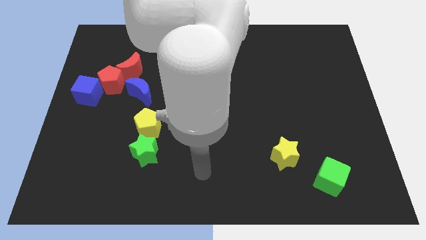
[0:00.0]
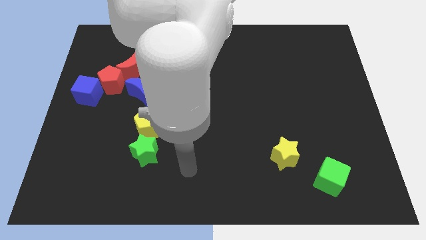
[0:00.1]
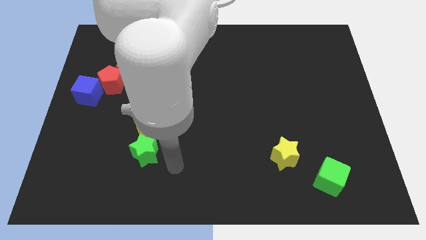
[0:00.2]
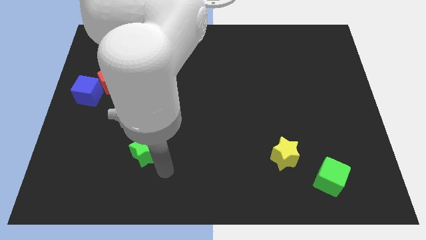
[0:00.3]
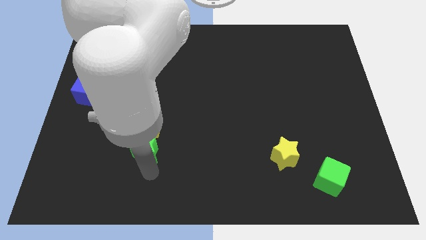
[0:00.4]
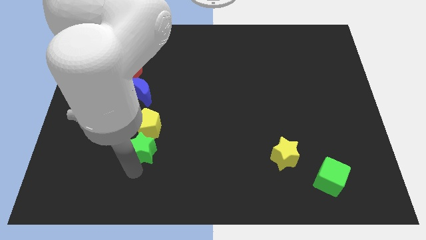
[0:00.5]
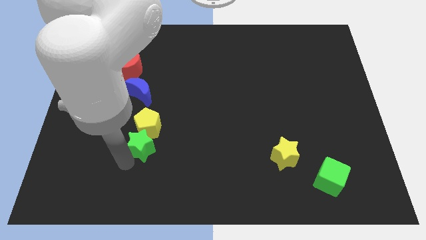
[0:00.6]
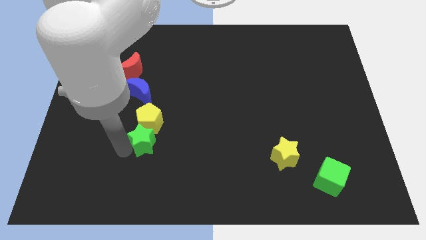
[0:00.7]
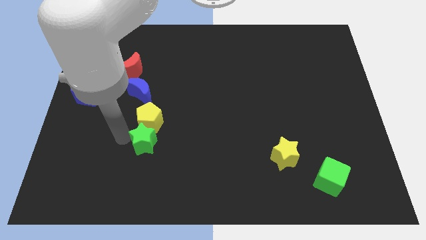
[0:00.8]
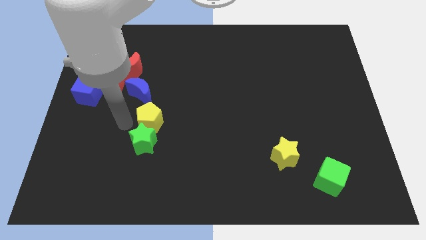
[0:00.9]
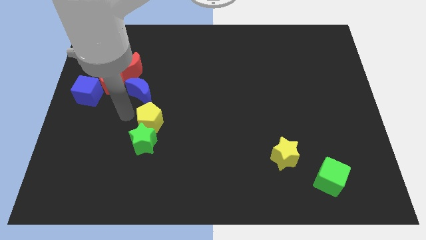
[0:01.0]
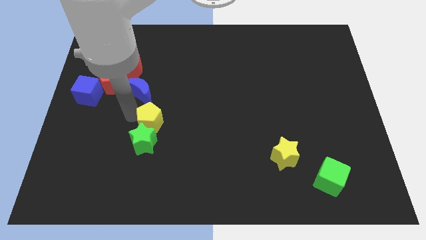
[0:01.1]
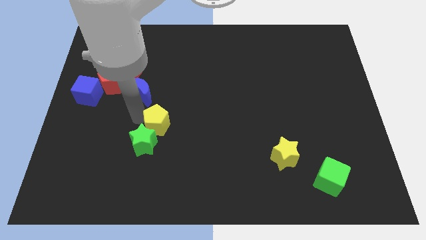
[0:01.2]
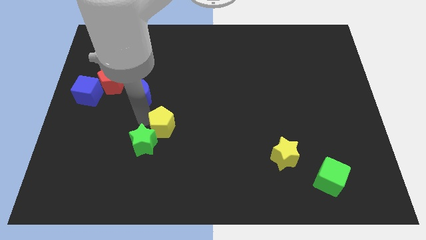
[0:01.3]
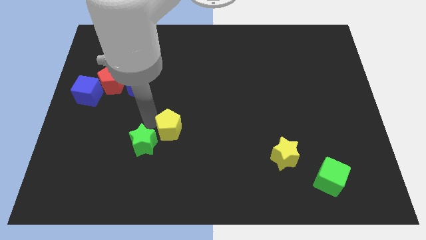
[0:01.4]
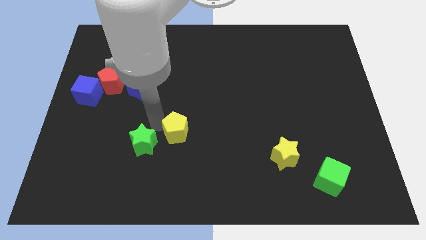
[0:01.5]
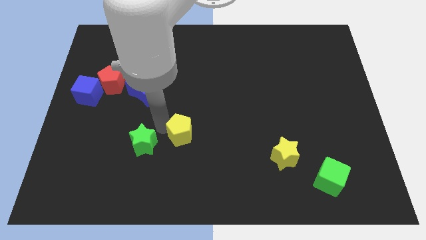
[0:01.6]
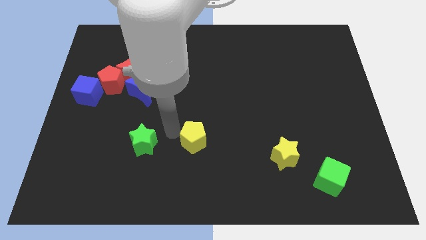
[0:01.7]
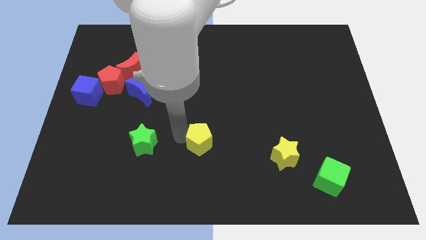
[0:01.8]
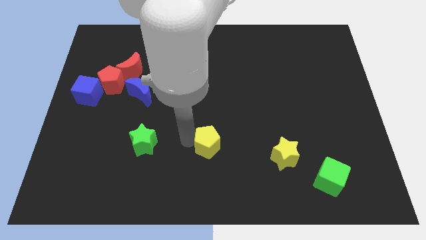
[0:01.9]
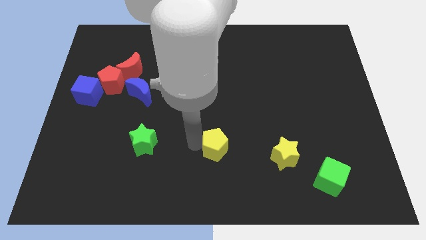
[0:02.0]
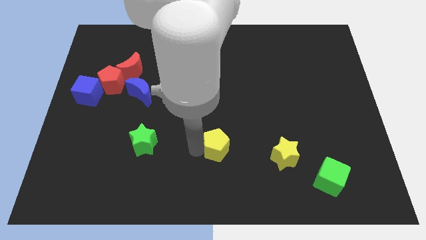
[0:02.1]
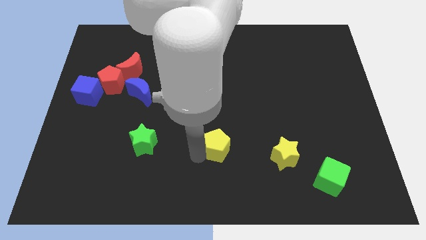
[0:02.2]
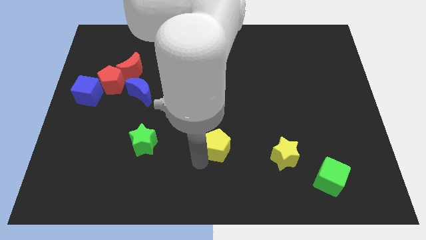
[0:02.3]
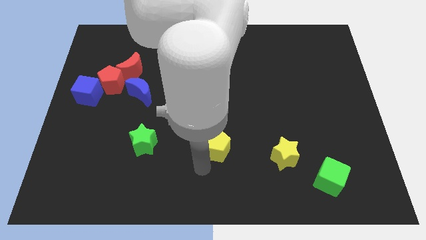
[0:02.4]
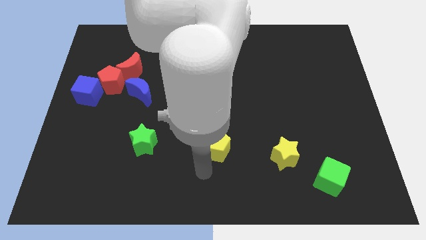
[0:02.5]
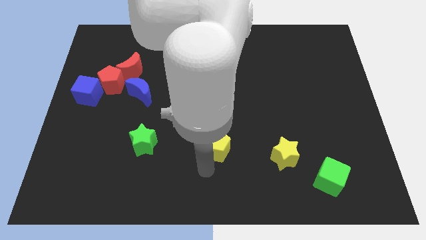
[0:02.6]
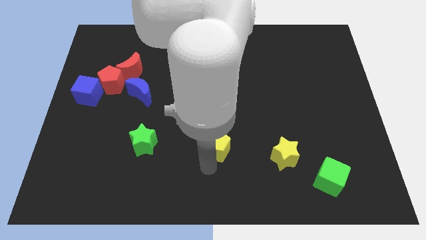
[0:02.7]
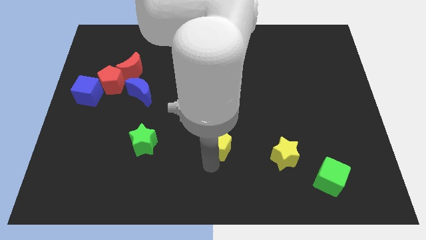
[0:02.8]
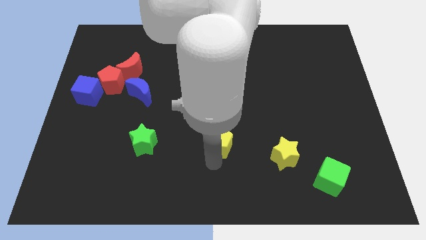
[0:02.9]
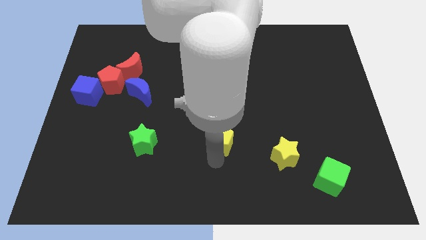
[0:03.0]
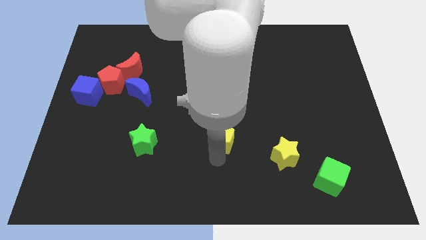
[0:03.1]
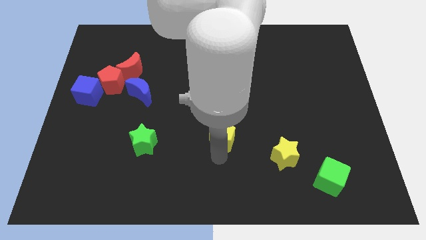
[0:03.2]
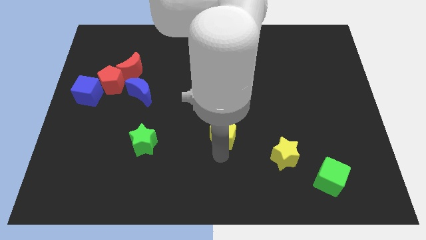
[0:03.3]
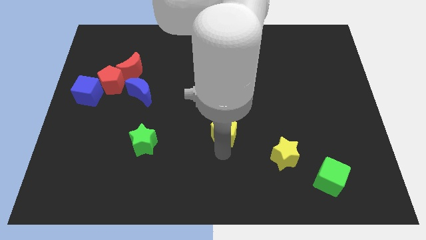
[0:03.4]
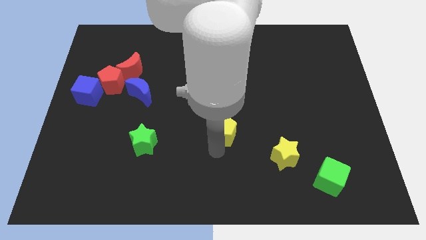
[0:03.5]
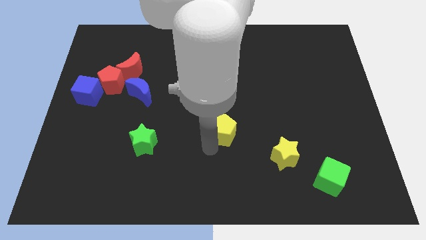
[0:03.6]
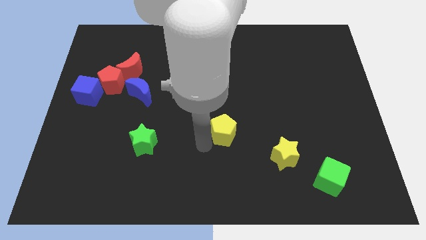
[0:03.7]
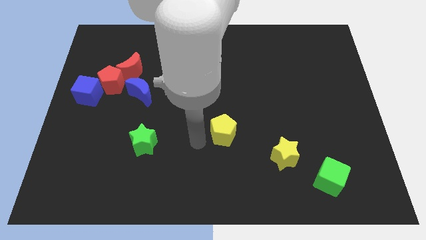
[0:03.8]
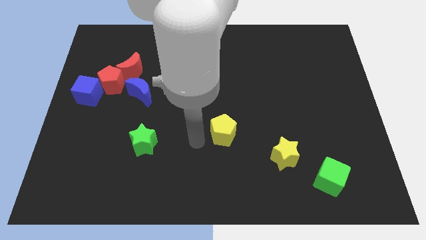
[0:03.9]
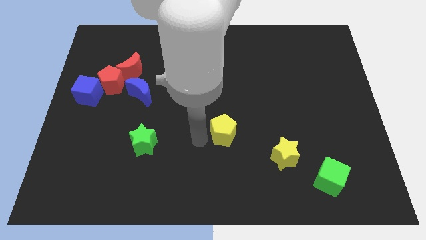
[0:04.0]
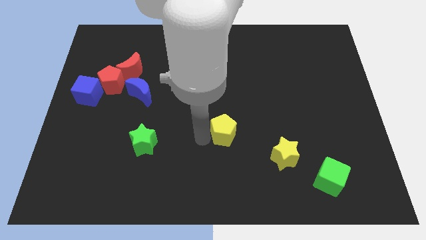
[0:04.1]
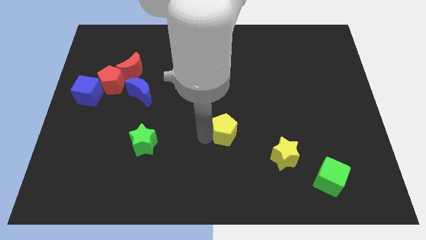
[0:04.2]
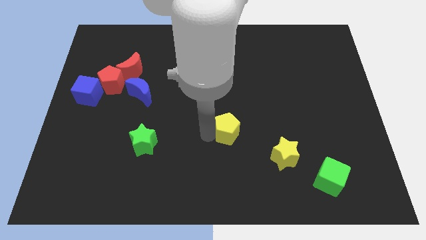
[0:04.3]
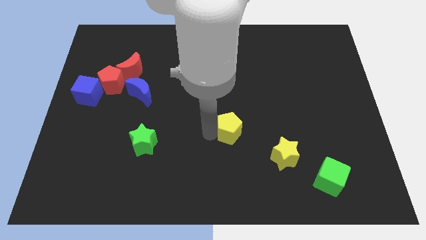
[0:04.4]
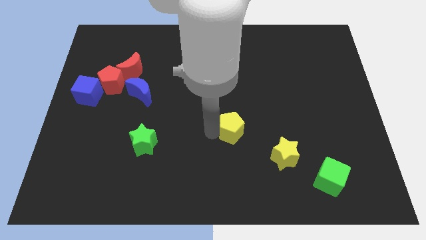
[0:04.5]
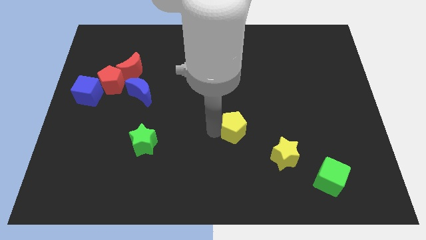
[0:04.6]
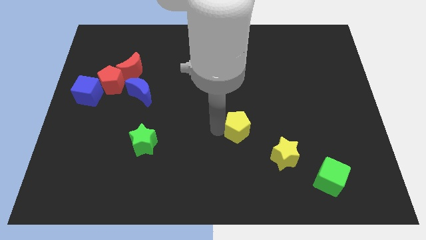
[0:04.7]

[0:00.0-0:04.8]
move the yellow pentagon right

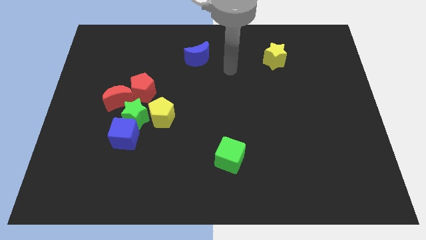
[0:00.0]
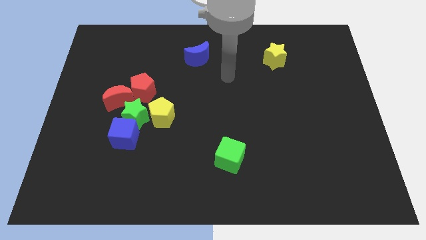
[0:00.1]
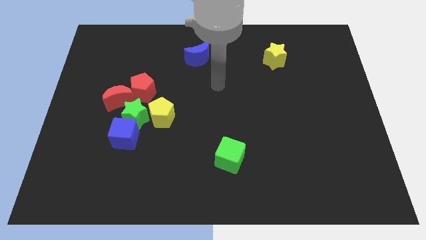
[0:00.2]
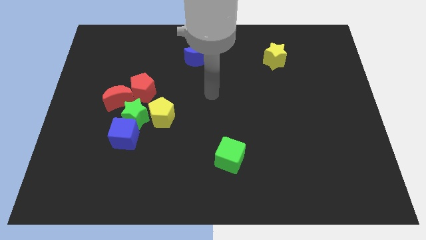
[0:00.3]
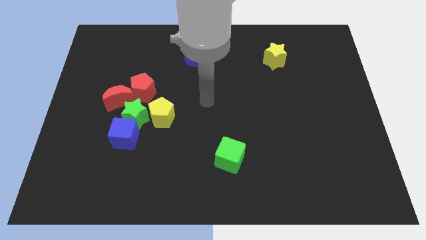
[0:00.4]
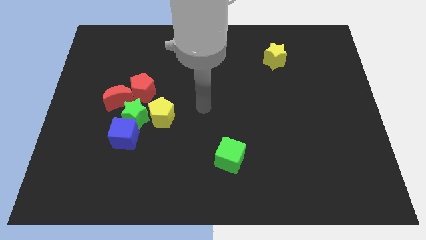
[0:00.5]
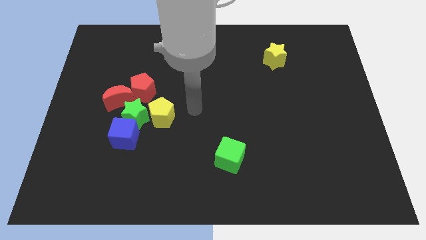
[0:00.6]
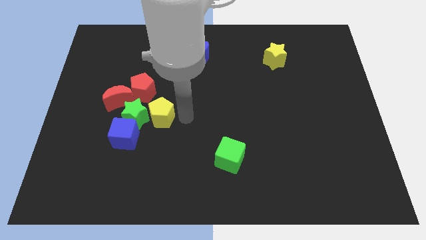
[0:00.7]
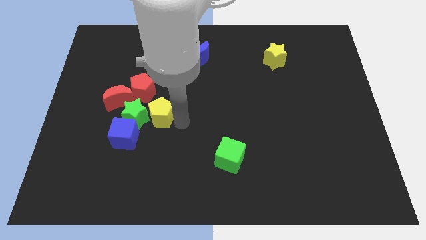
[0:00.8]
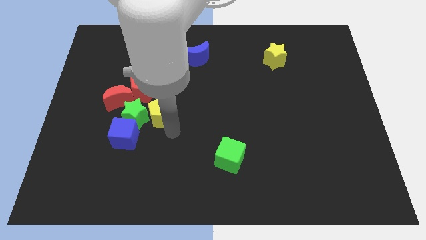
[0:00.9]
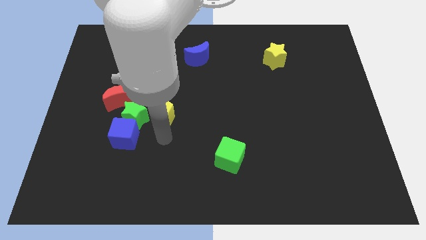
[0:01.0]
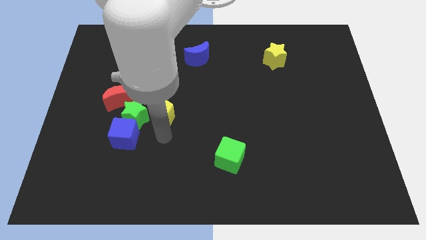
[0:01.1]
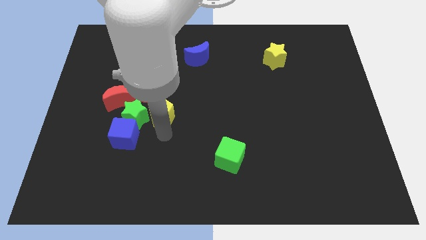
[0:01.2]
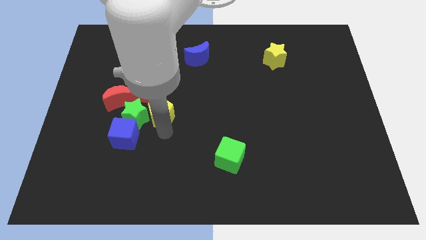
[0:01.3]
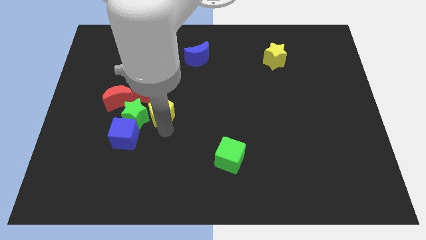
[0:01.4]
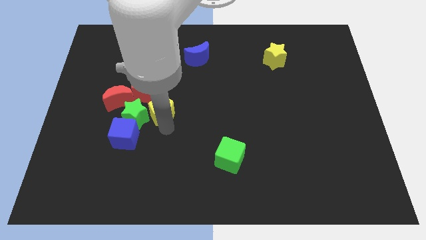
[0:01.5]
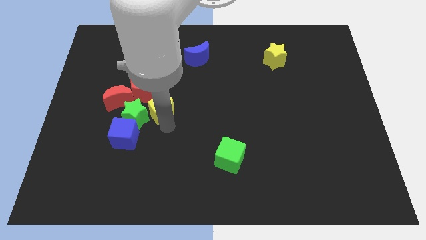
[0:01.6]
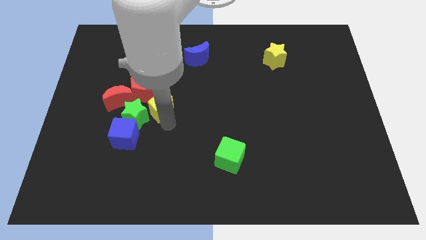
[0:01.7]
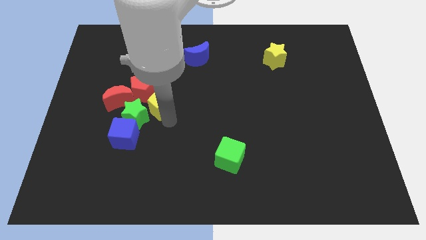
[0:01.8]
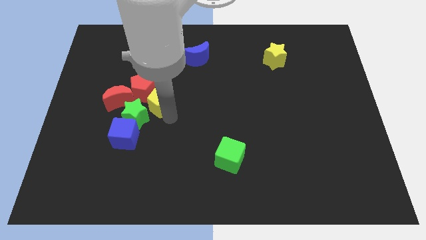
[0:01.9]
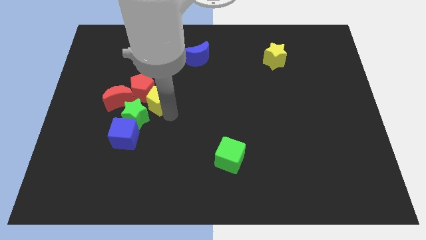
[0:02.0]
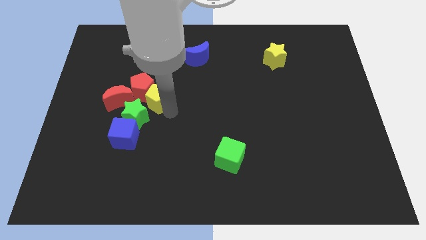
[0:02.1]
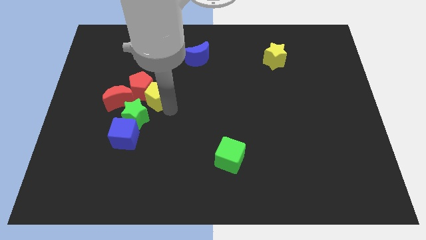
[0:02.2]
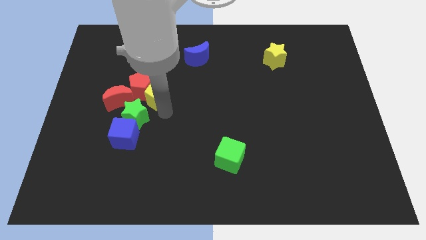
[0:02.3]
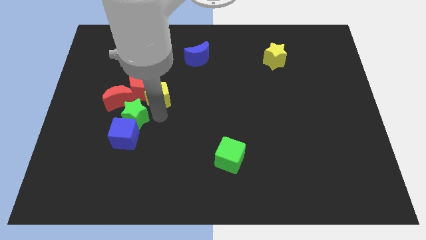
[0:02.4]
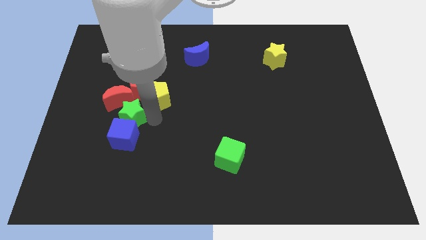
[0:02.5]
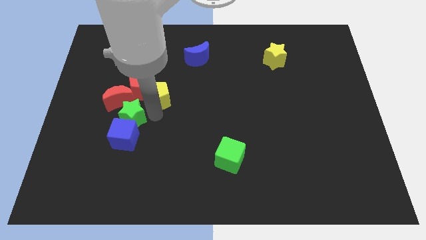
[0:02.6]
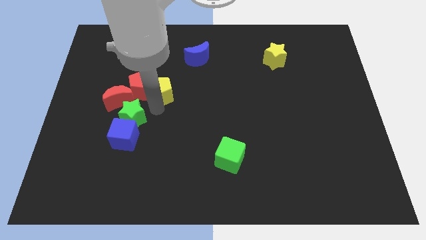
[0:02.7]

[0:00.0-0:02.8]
push the yellow pentagon up a bit
